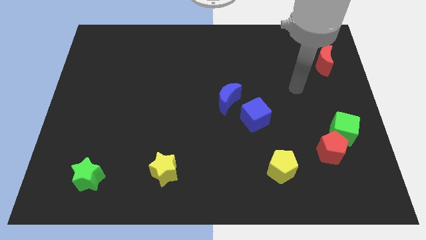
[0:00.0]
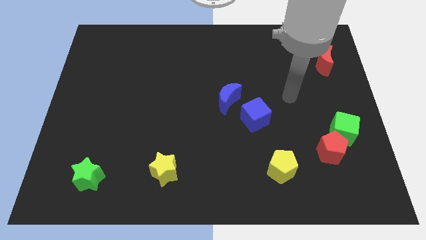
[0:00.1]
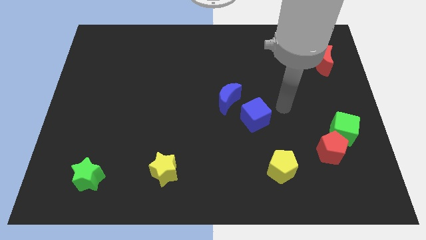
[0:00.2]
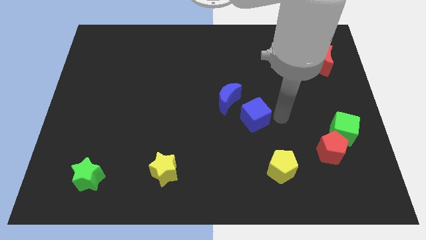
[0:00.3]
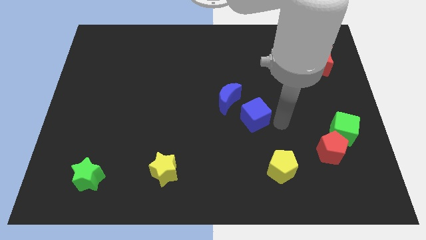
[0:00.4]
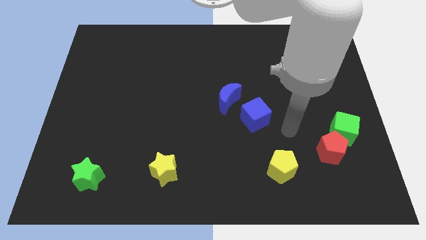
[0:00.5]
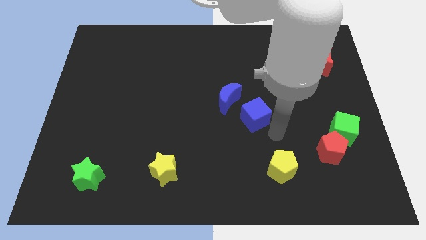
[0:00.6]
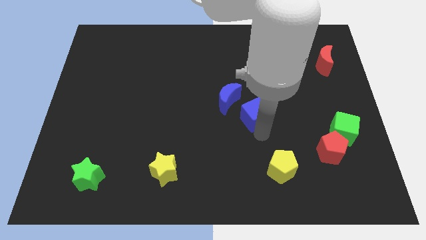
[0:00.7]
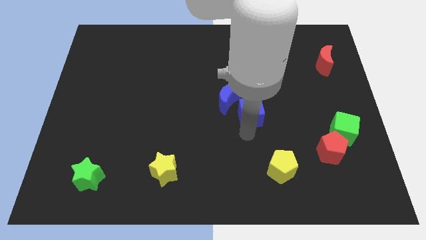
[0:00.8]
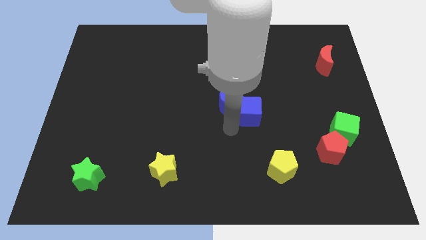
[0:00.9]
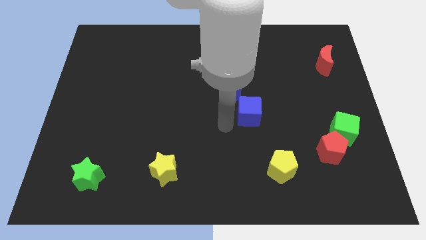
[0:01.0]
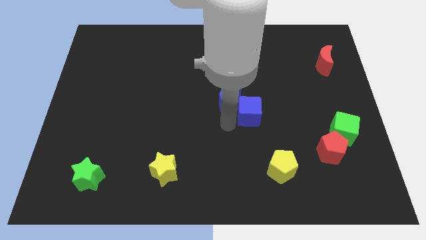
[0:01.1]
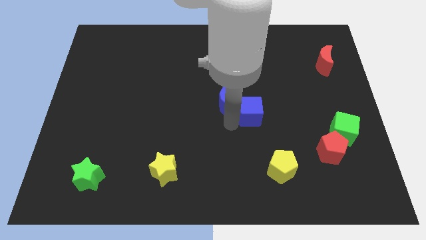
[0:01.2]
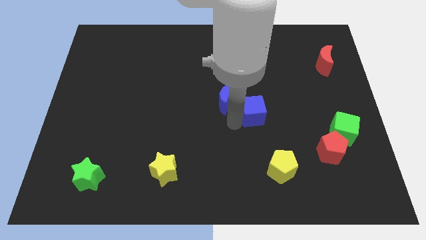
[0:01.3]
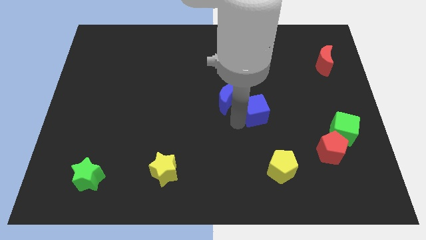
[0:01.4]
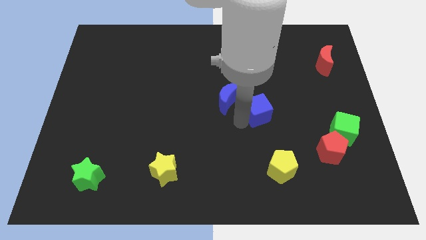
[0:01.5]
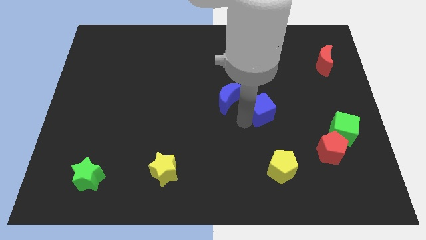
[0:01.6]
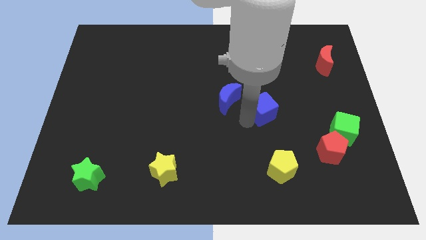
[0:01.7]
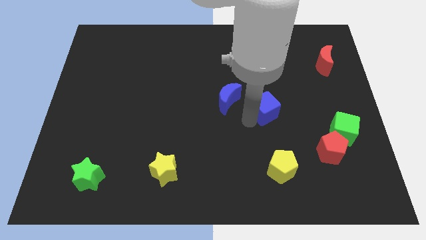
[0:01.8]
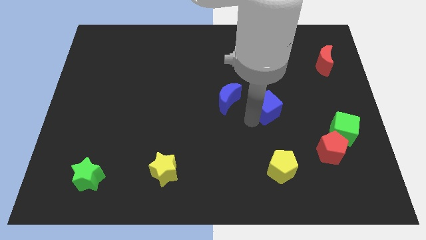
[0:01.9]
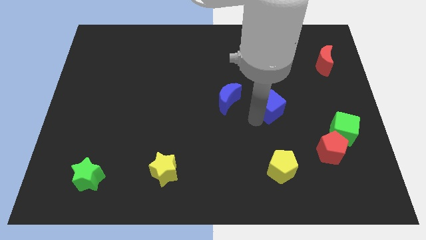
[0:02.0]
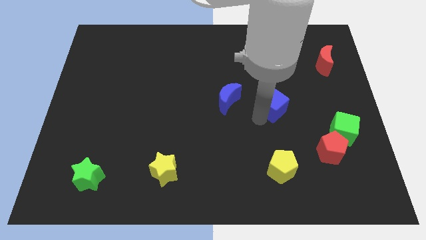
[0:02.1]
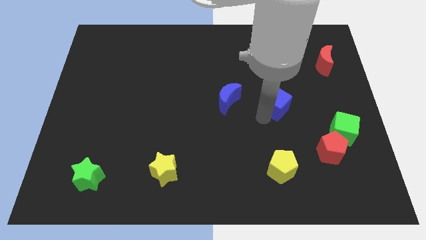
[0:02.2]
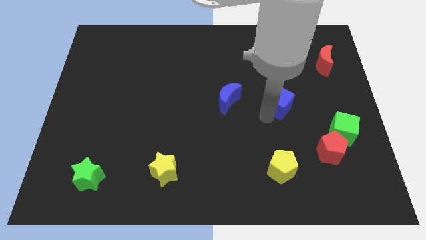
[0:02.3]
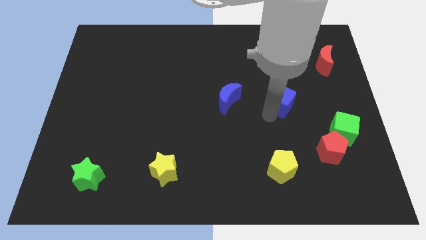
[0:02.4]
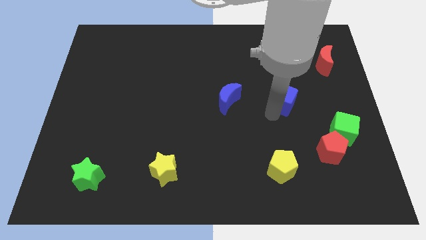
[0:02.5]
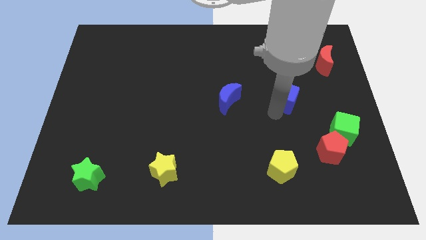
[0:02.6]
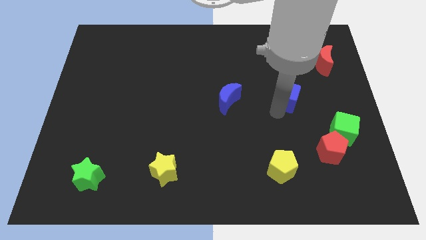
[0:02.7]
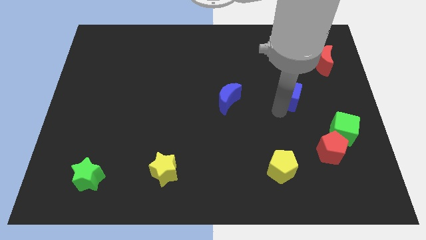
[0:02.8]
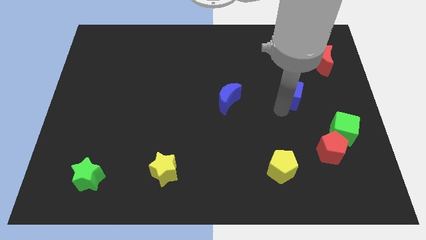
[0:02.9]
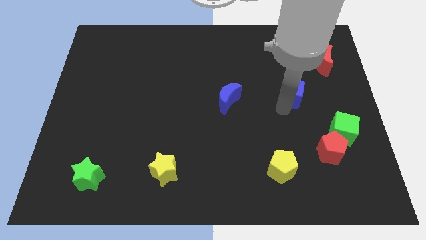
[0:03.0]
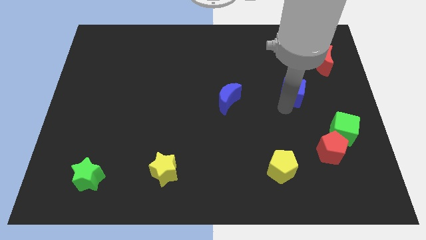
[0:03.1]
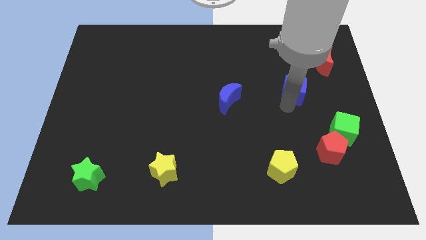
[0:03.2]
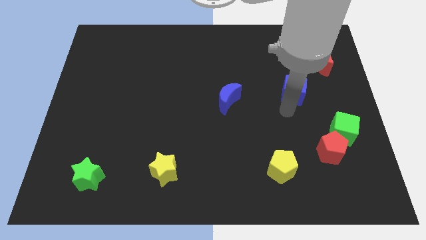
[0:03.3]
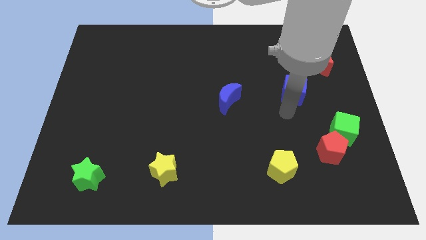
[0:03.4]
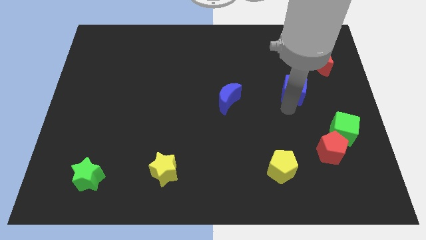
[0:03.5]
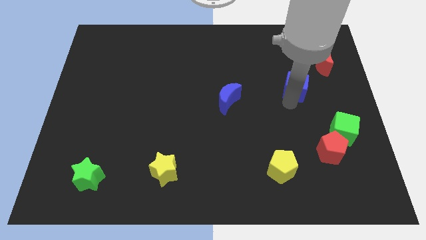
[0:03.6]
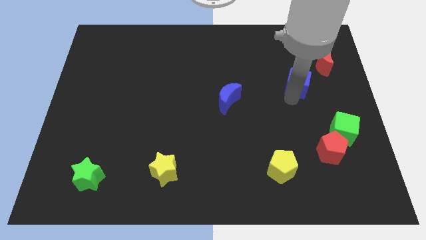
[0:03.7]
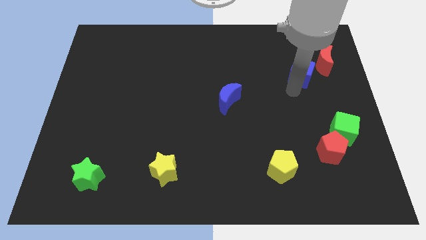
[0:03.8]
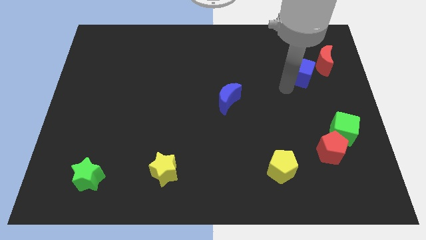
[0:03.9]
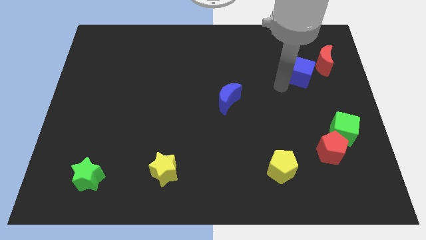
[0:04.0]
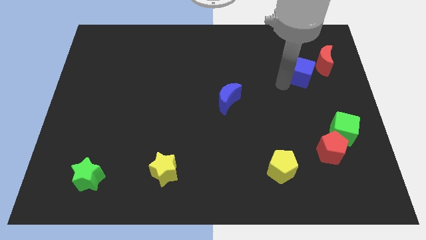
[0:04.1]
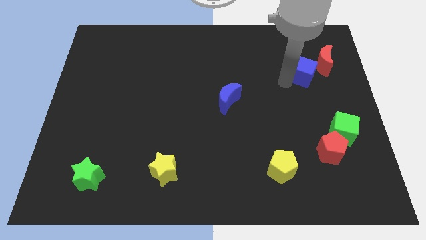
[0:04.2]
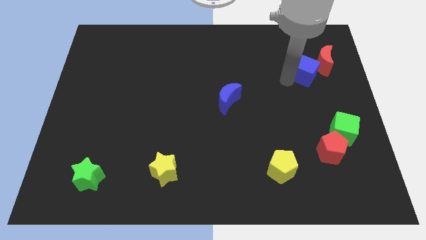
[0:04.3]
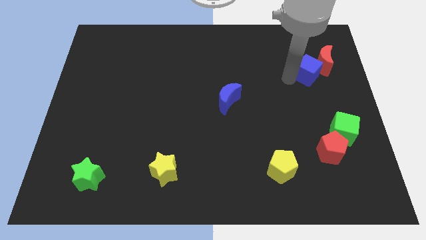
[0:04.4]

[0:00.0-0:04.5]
push the blue cube towards the red moon

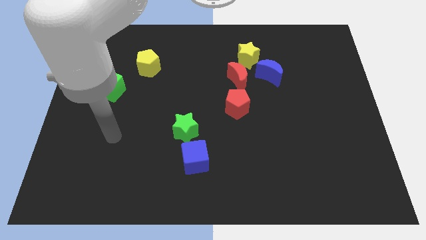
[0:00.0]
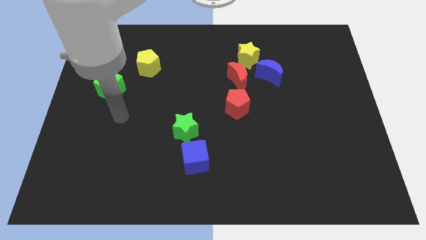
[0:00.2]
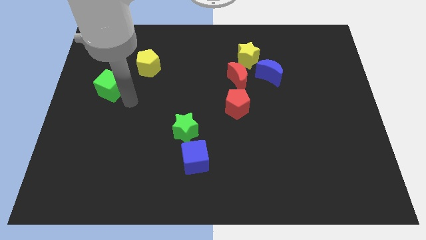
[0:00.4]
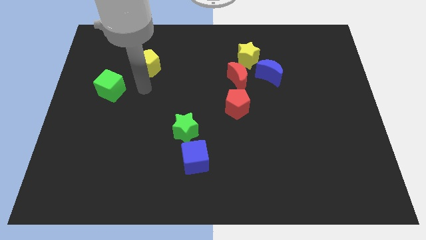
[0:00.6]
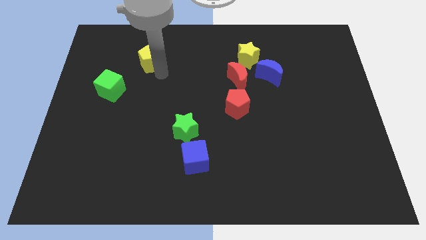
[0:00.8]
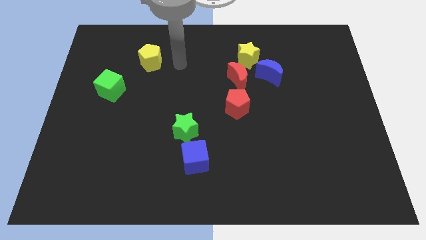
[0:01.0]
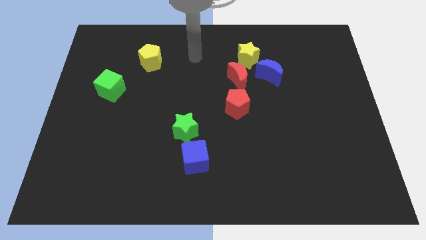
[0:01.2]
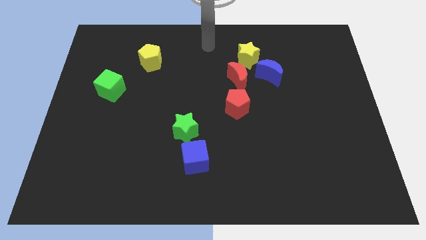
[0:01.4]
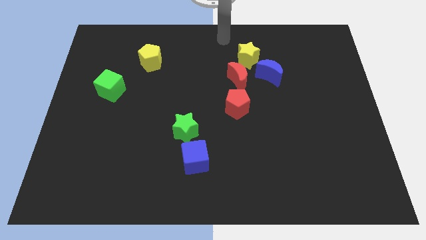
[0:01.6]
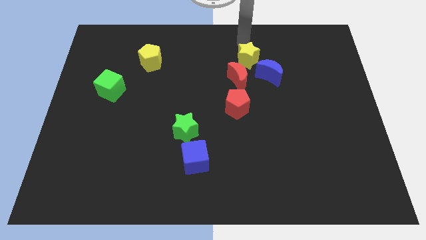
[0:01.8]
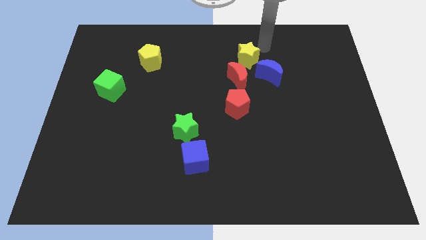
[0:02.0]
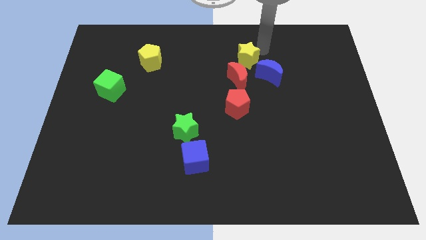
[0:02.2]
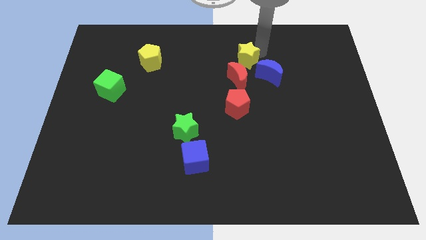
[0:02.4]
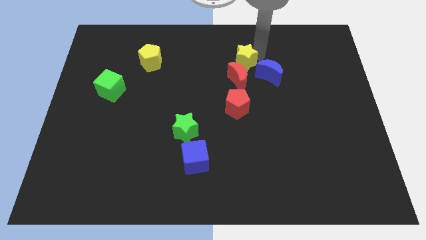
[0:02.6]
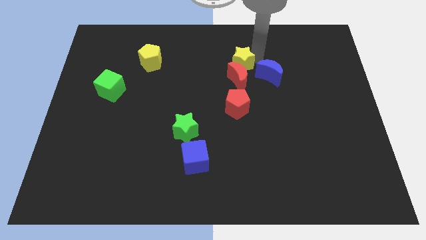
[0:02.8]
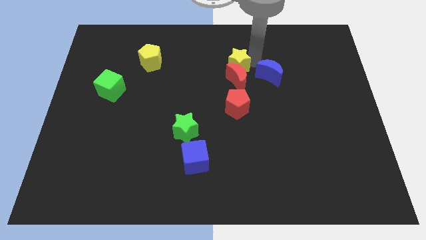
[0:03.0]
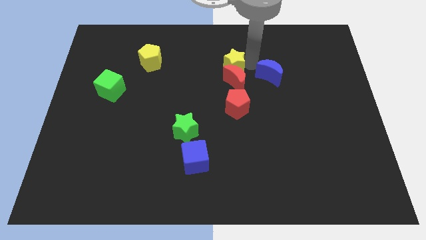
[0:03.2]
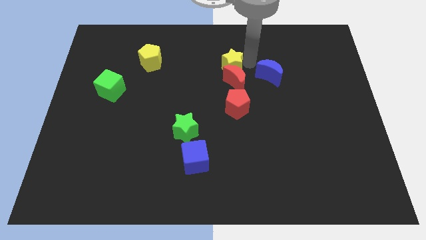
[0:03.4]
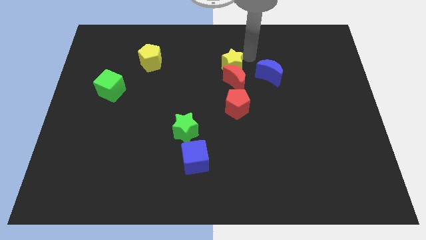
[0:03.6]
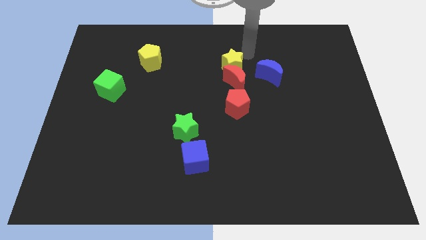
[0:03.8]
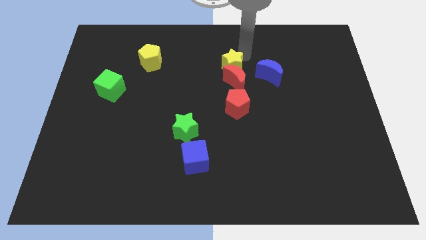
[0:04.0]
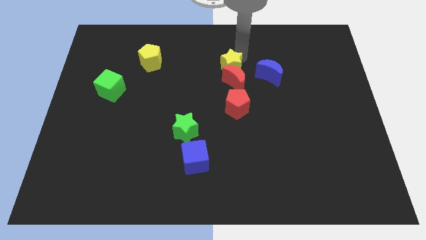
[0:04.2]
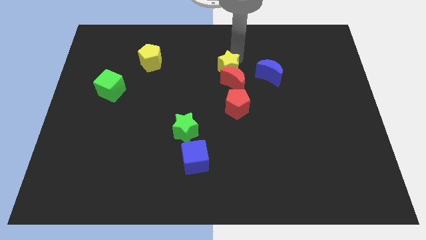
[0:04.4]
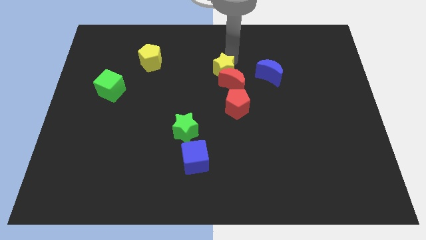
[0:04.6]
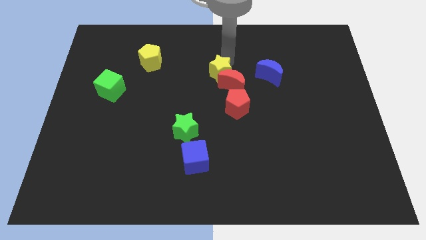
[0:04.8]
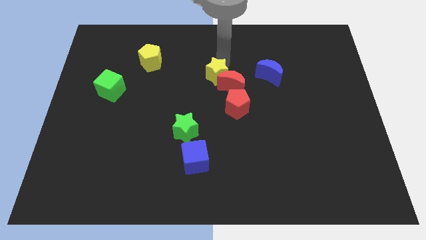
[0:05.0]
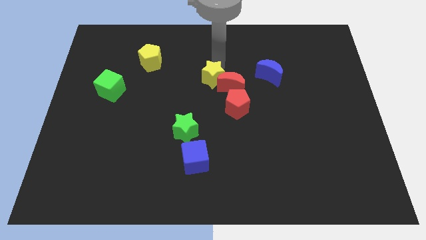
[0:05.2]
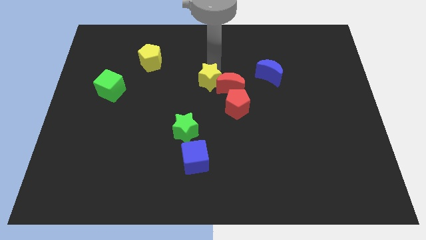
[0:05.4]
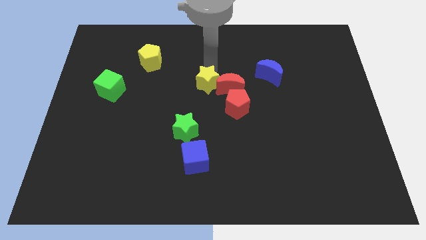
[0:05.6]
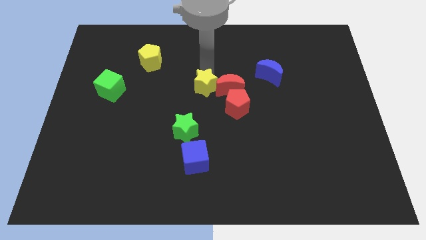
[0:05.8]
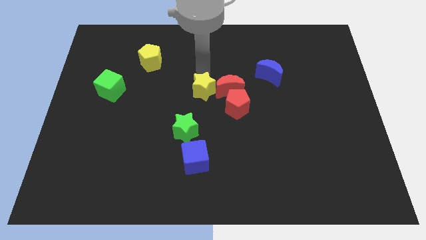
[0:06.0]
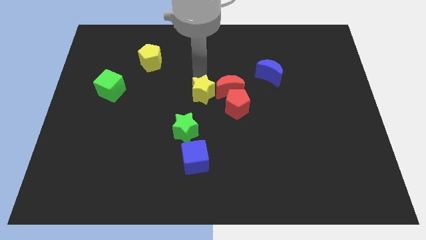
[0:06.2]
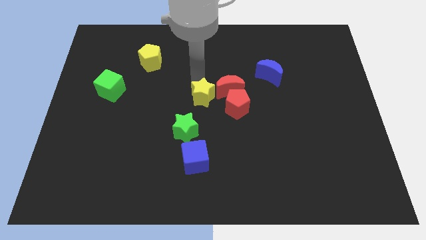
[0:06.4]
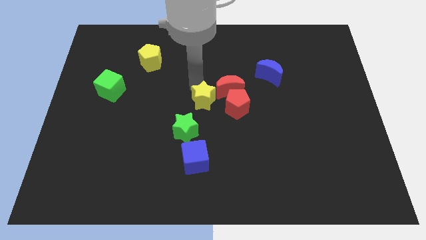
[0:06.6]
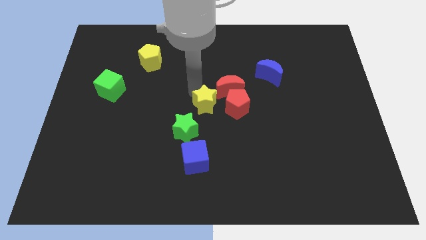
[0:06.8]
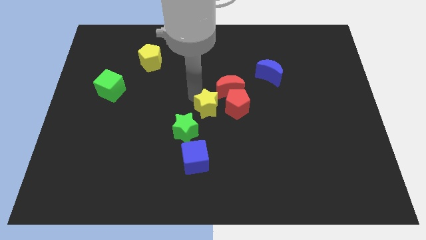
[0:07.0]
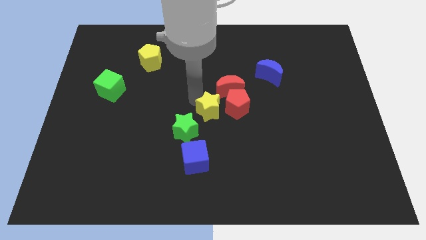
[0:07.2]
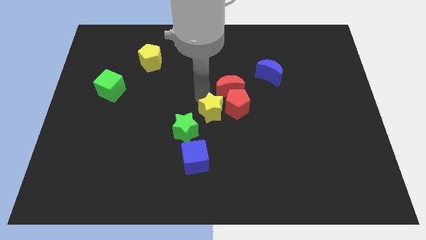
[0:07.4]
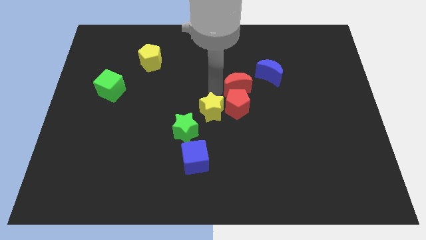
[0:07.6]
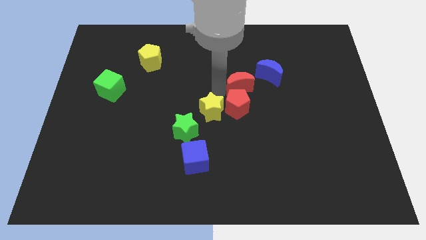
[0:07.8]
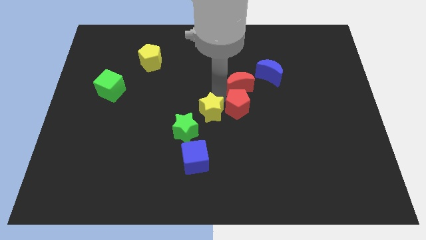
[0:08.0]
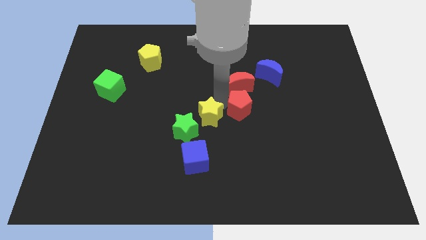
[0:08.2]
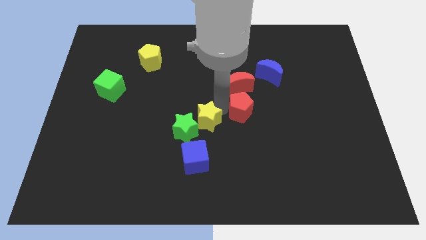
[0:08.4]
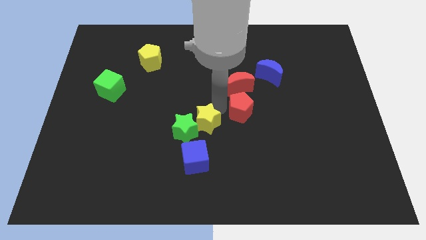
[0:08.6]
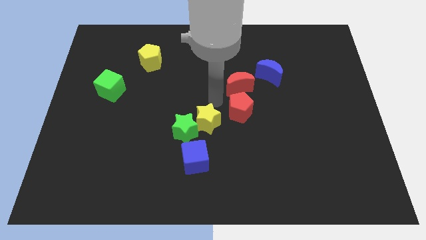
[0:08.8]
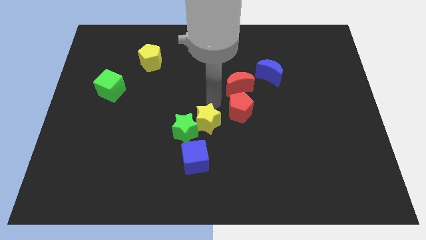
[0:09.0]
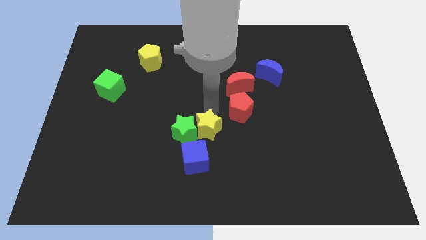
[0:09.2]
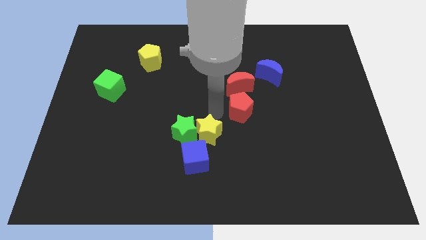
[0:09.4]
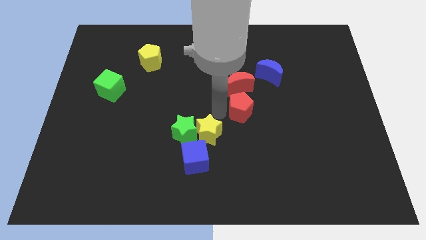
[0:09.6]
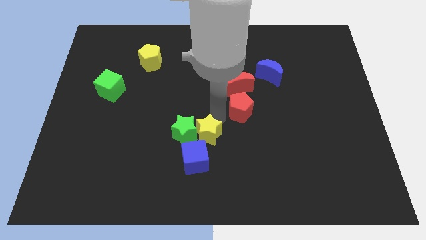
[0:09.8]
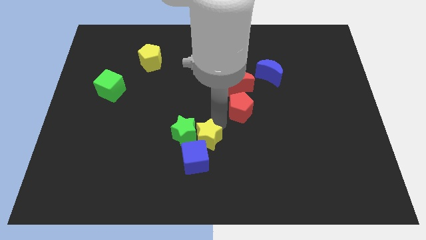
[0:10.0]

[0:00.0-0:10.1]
push the yellow star towards the blue cube
